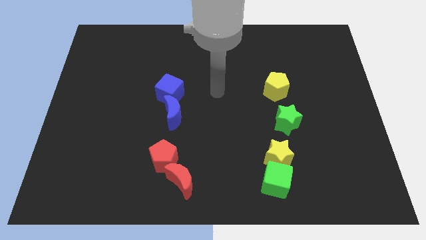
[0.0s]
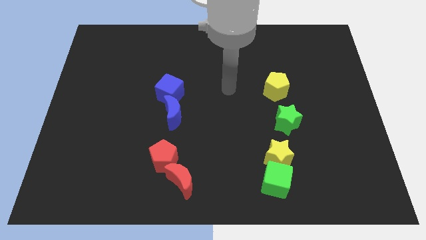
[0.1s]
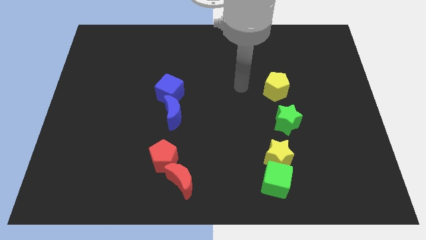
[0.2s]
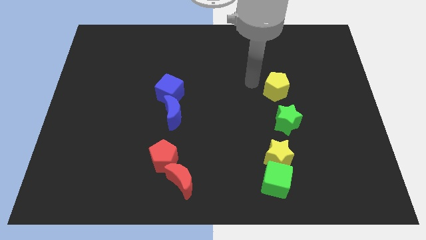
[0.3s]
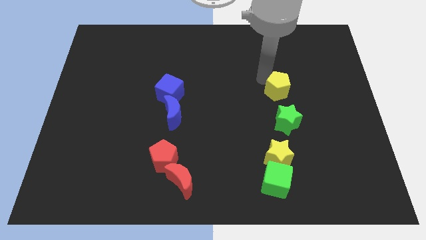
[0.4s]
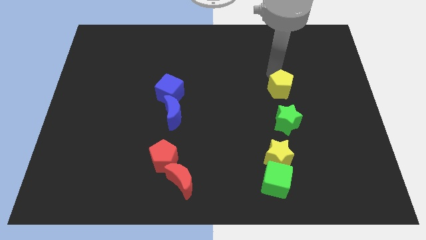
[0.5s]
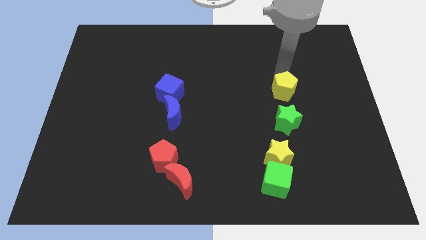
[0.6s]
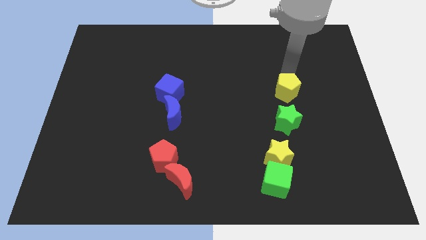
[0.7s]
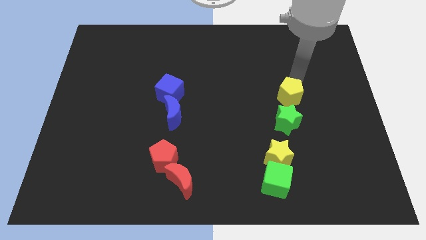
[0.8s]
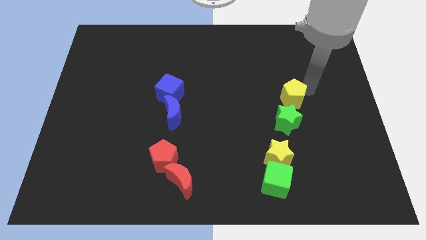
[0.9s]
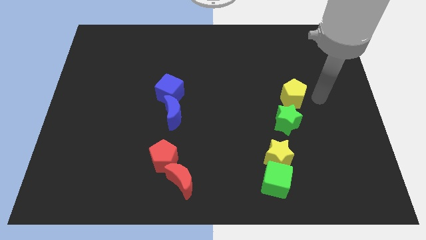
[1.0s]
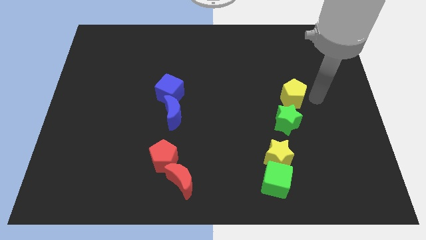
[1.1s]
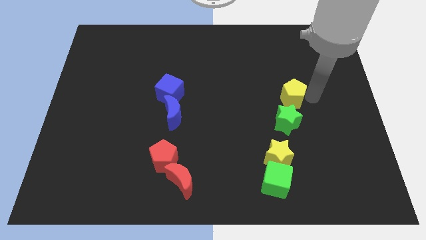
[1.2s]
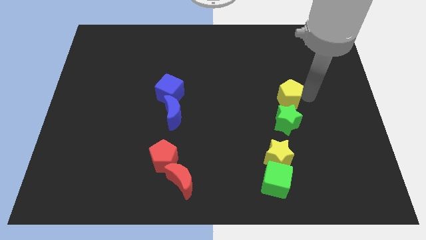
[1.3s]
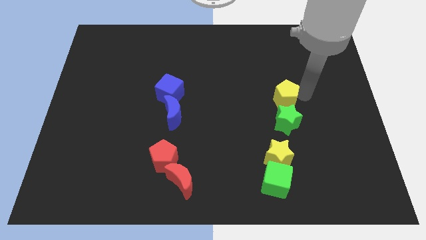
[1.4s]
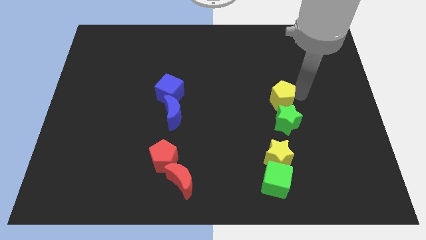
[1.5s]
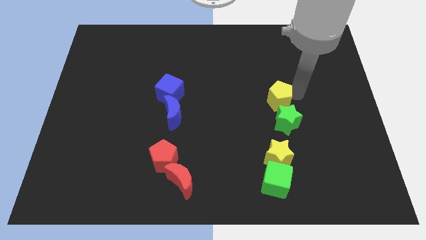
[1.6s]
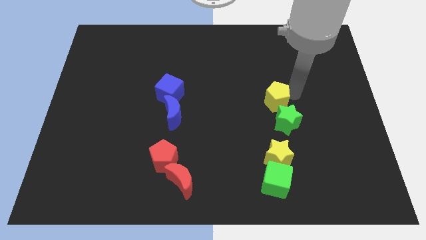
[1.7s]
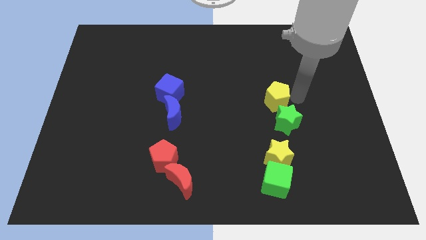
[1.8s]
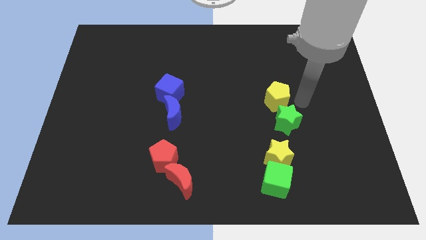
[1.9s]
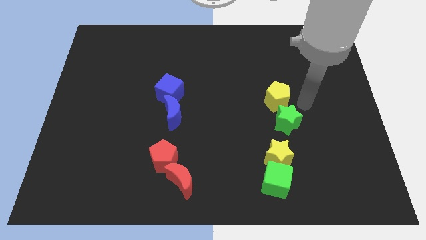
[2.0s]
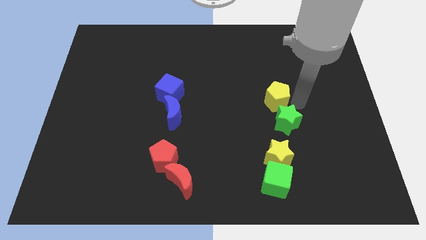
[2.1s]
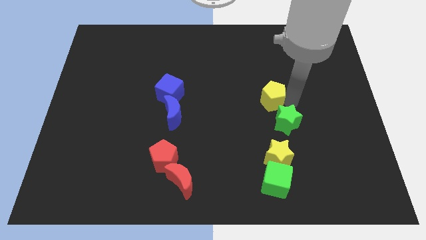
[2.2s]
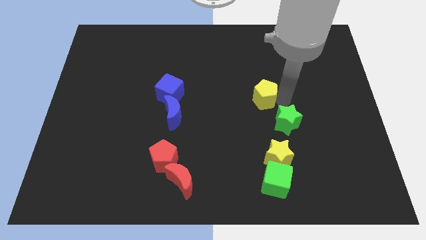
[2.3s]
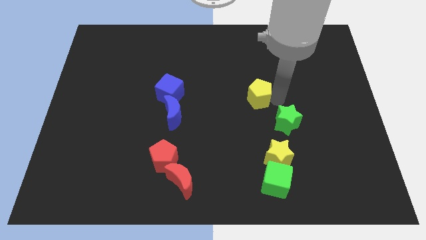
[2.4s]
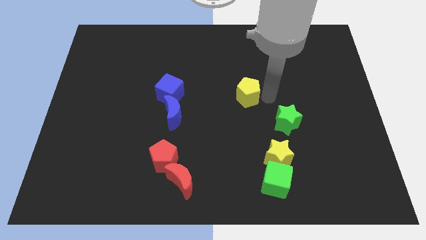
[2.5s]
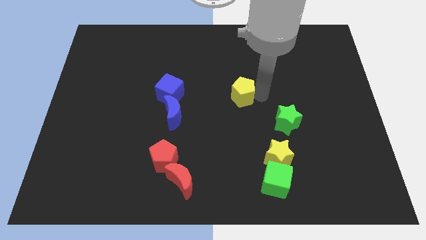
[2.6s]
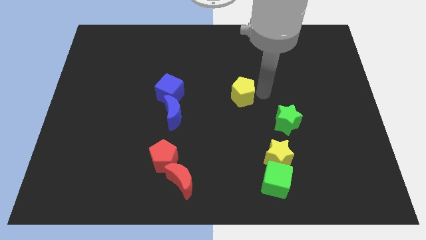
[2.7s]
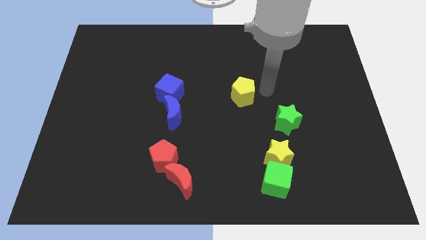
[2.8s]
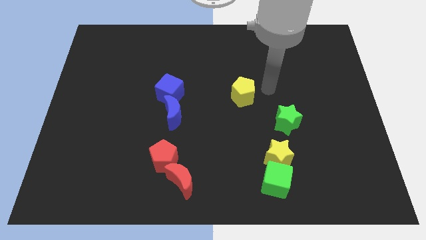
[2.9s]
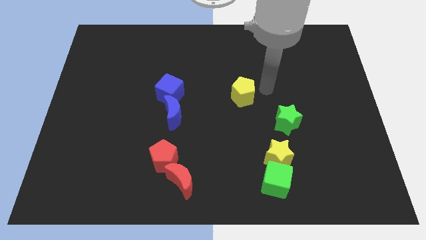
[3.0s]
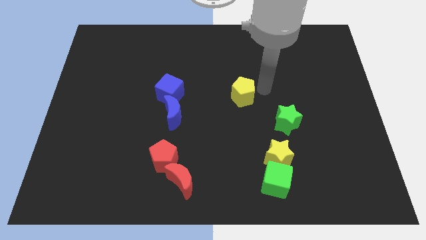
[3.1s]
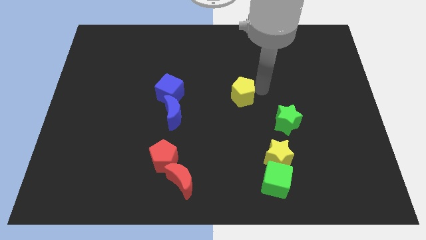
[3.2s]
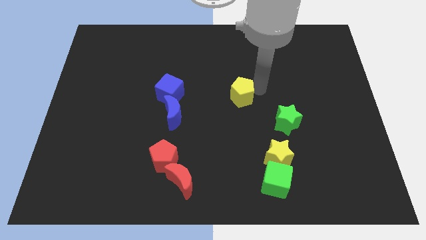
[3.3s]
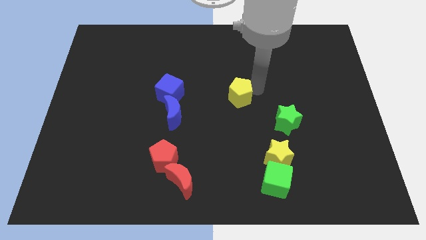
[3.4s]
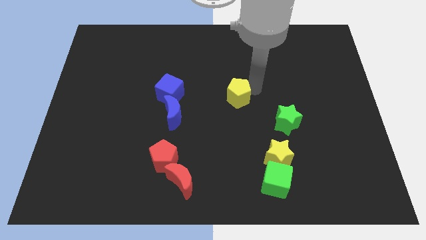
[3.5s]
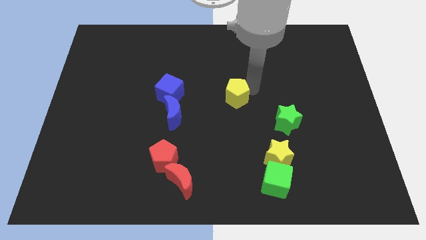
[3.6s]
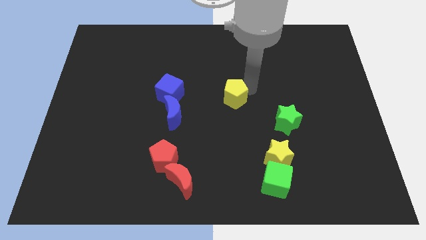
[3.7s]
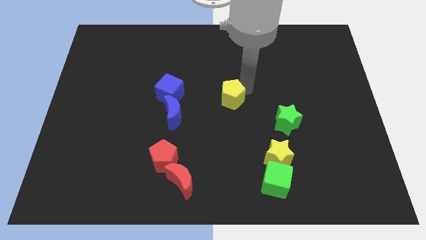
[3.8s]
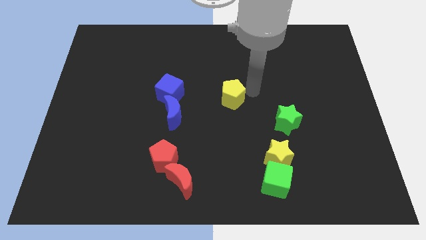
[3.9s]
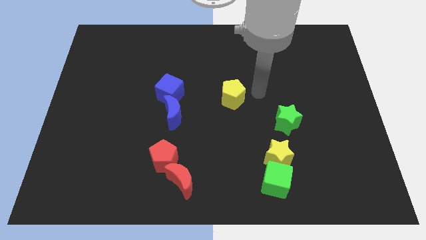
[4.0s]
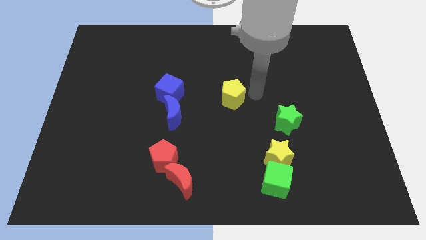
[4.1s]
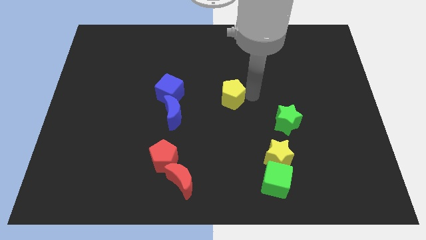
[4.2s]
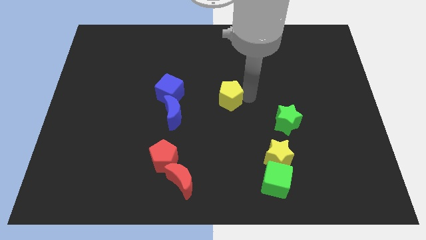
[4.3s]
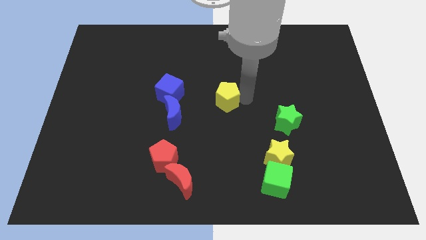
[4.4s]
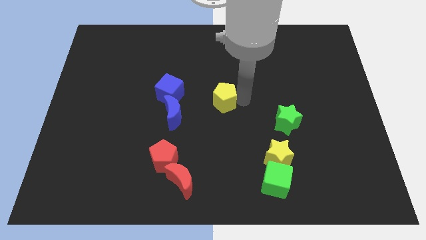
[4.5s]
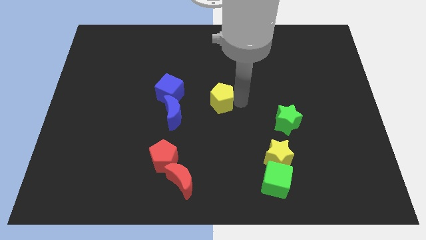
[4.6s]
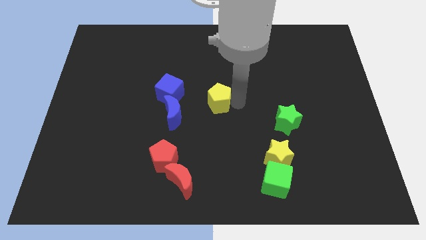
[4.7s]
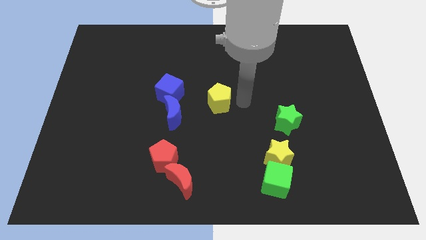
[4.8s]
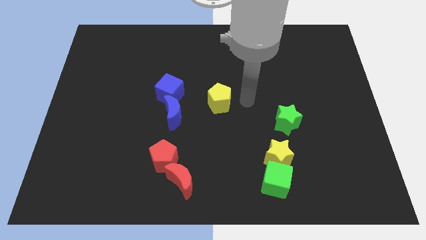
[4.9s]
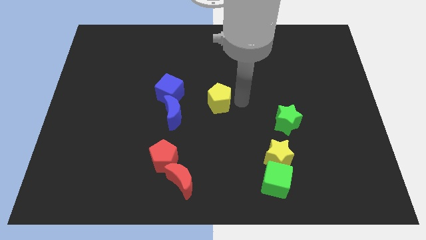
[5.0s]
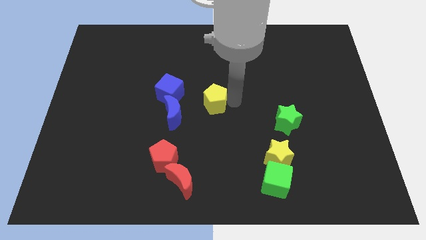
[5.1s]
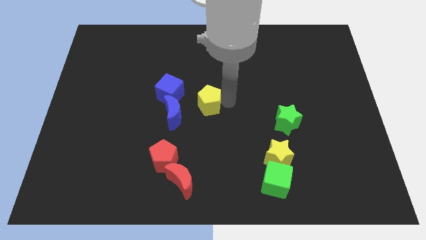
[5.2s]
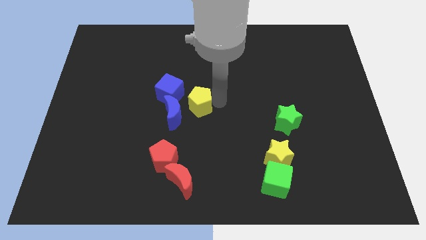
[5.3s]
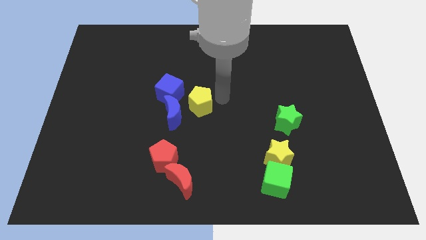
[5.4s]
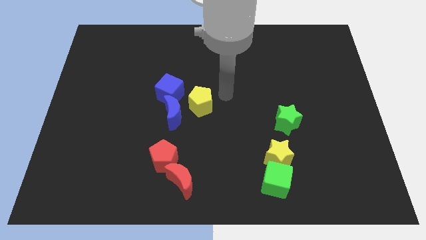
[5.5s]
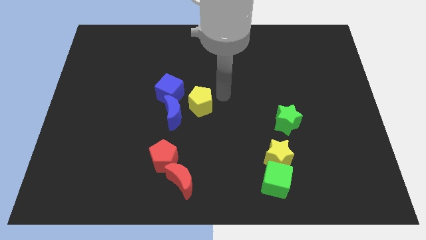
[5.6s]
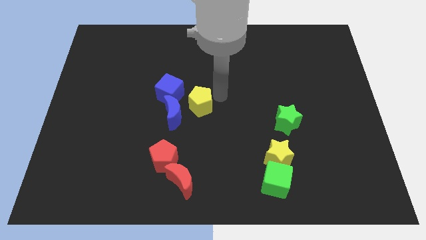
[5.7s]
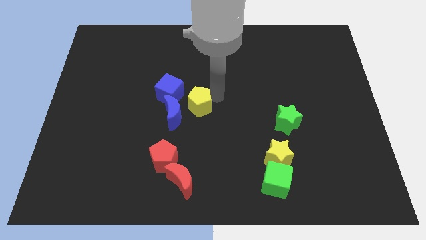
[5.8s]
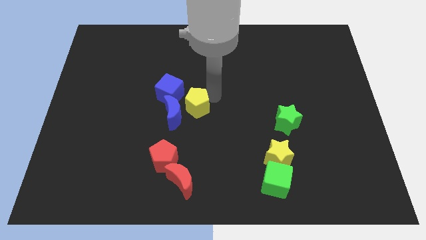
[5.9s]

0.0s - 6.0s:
slide the yellow pentagon next to the blue moon

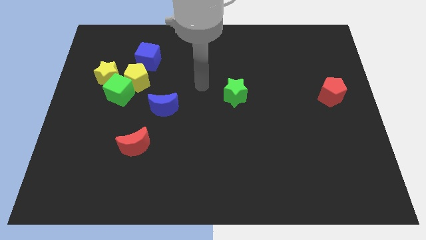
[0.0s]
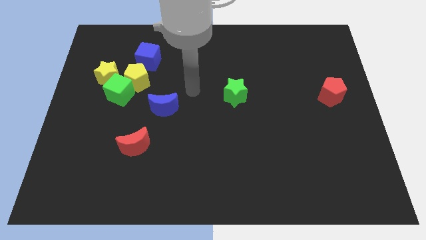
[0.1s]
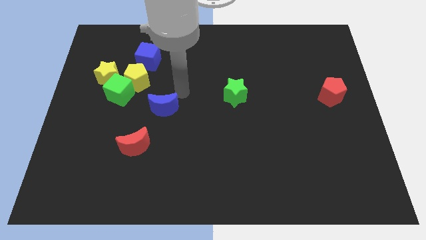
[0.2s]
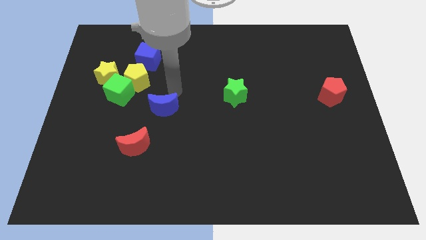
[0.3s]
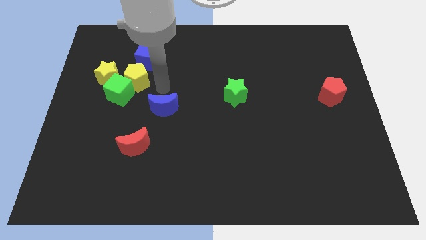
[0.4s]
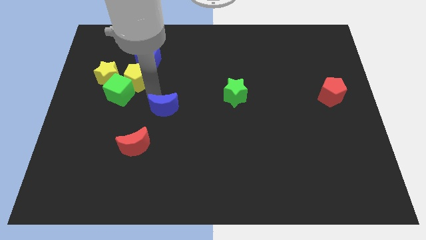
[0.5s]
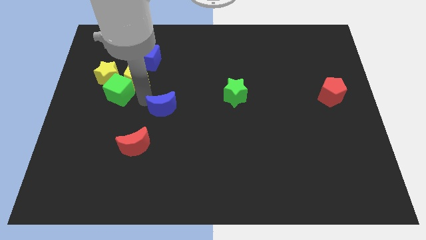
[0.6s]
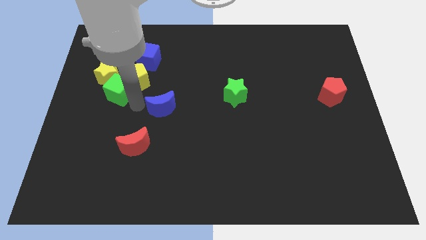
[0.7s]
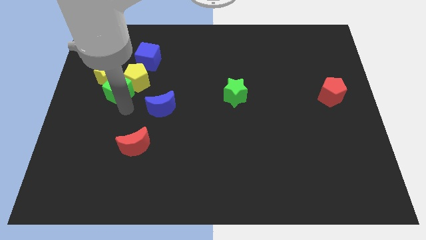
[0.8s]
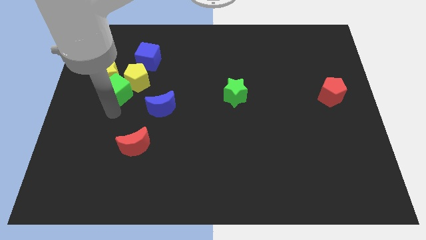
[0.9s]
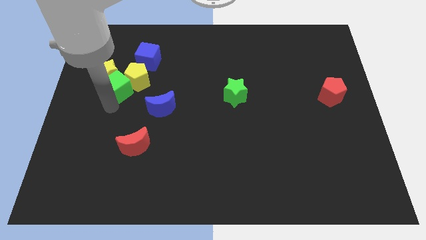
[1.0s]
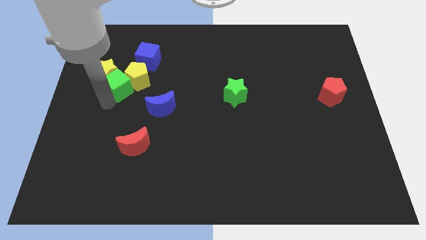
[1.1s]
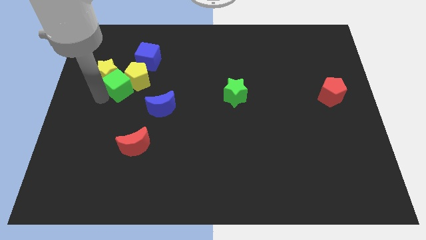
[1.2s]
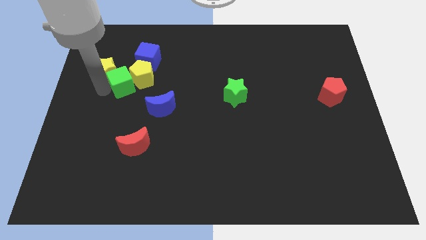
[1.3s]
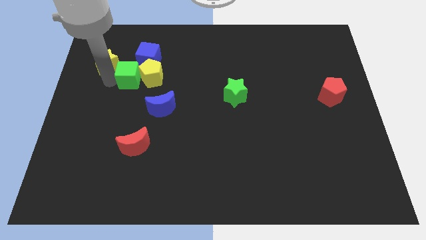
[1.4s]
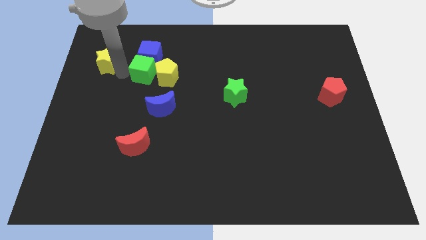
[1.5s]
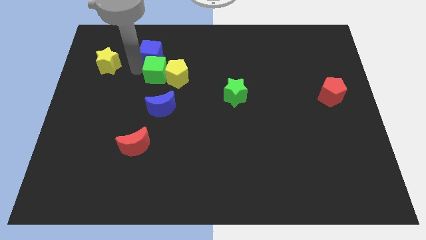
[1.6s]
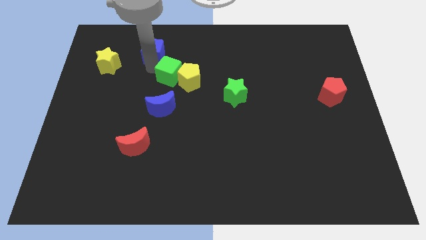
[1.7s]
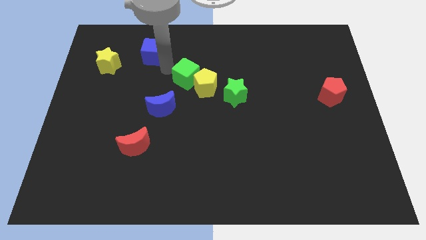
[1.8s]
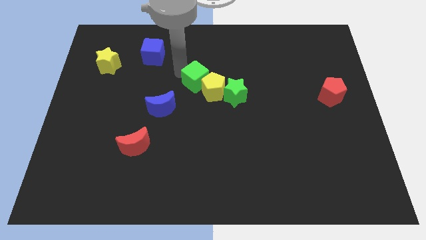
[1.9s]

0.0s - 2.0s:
slide the yellow pentagon to the green star
